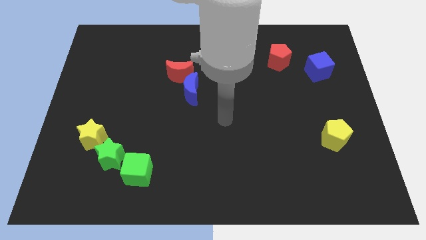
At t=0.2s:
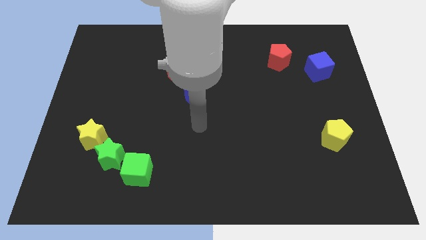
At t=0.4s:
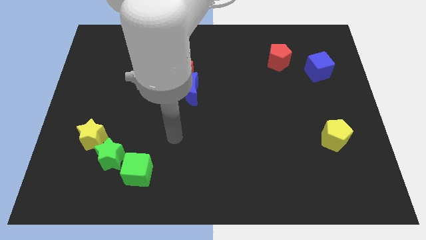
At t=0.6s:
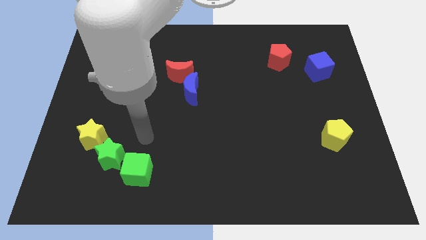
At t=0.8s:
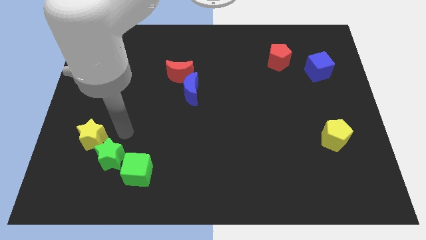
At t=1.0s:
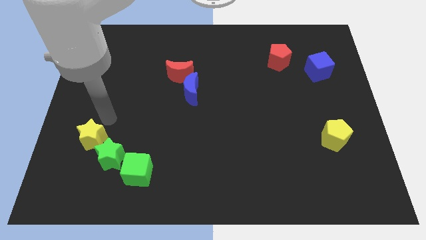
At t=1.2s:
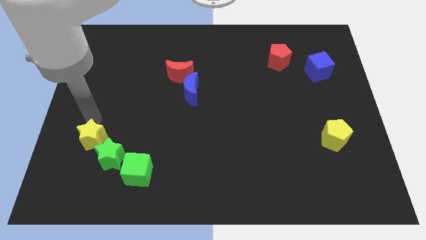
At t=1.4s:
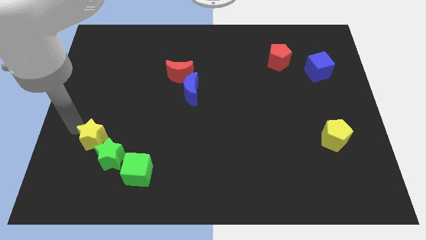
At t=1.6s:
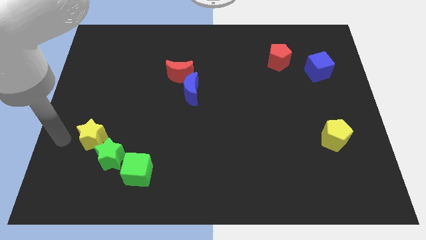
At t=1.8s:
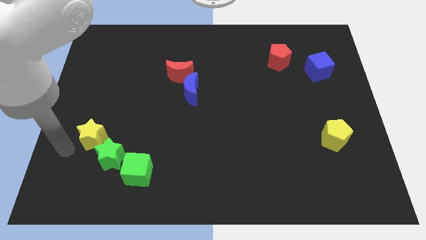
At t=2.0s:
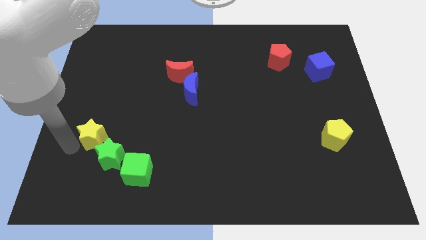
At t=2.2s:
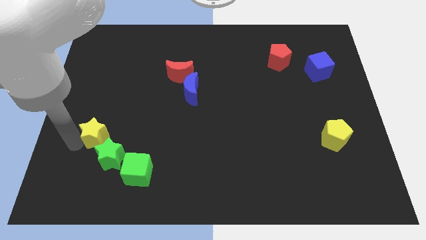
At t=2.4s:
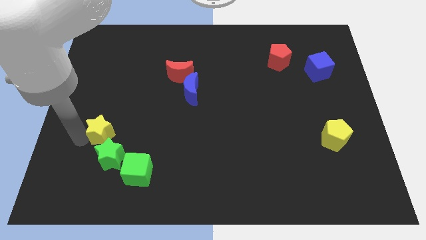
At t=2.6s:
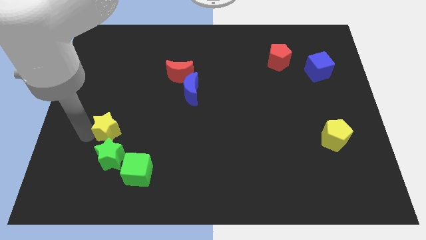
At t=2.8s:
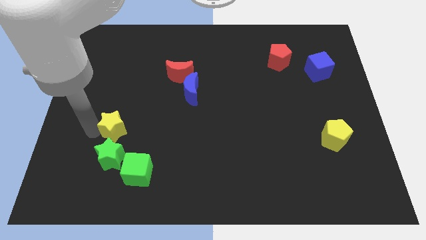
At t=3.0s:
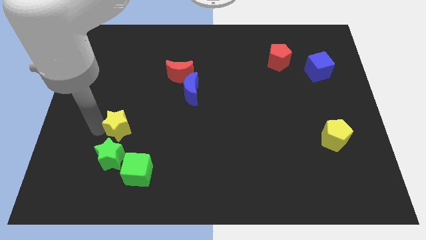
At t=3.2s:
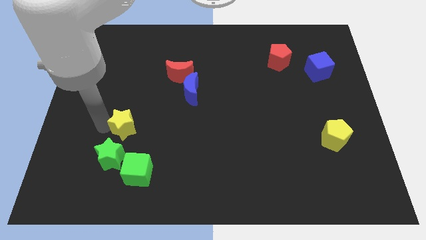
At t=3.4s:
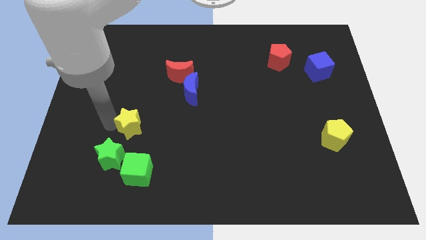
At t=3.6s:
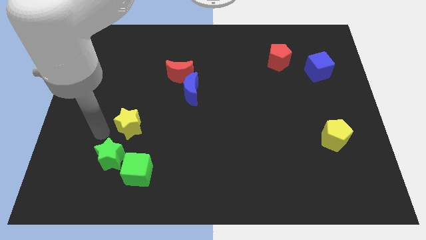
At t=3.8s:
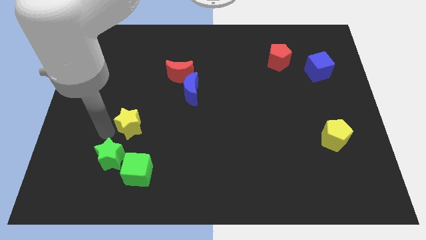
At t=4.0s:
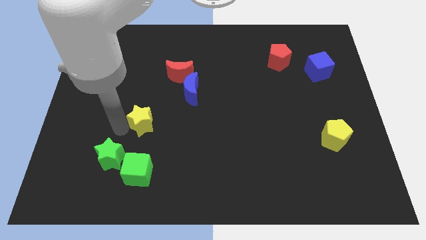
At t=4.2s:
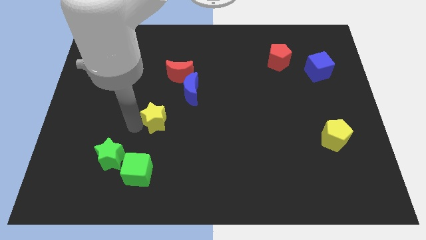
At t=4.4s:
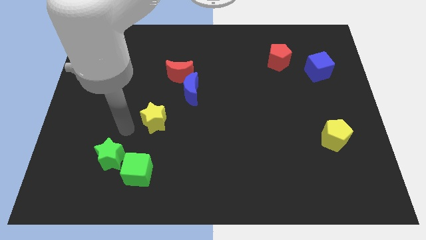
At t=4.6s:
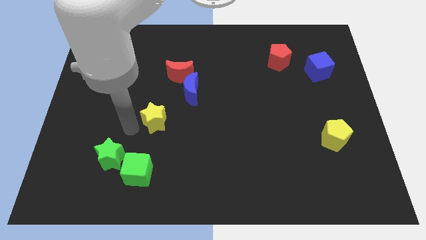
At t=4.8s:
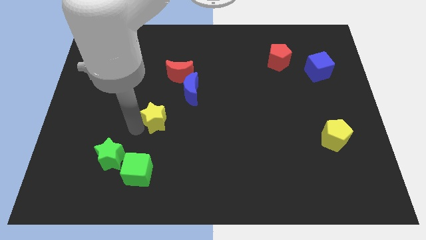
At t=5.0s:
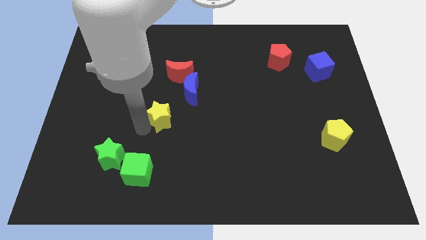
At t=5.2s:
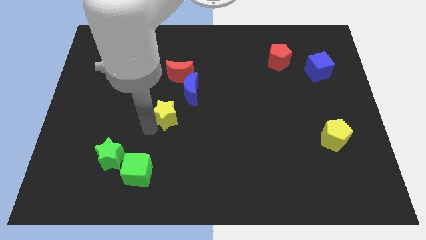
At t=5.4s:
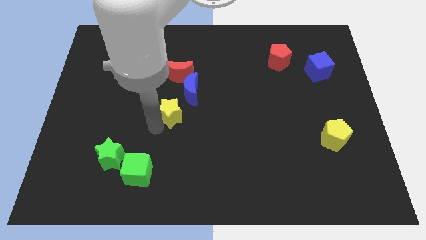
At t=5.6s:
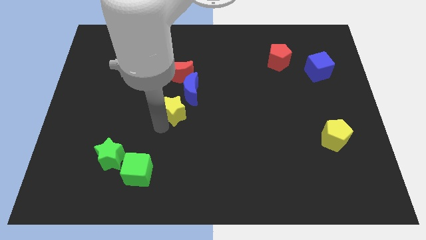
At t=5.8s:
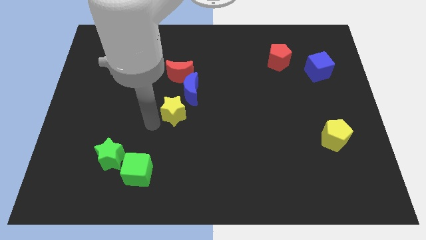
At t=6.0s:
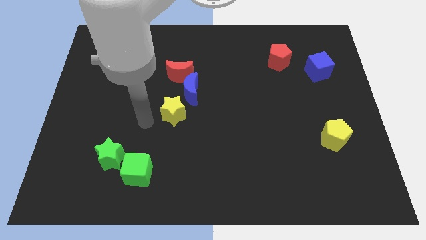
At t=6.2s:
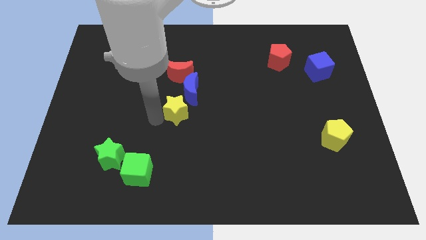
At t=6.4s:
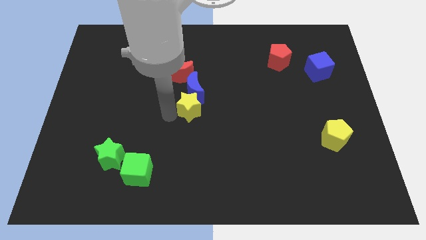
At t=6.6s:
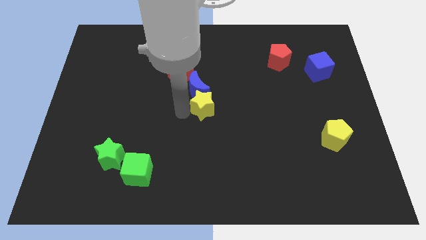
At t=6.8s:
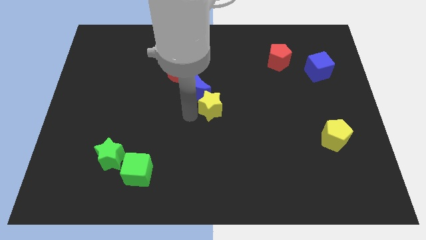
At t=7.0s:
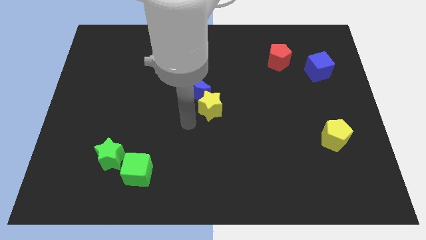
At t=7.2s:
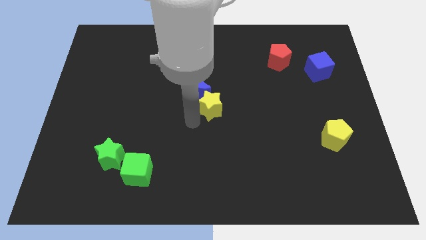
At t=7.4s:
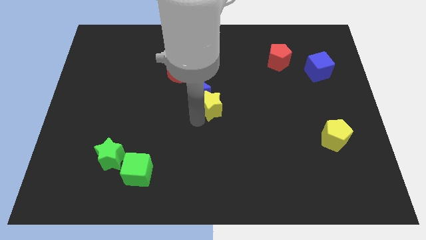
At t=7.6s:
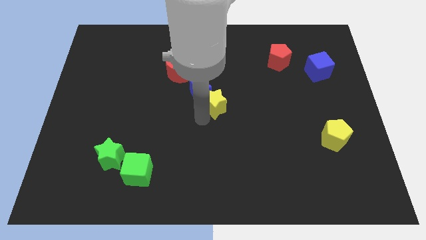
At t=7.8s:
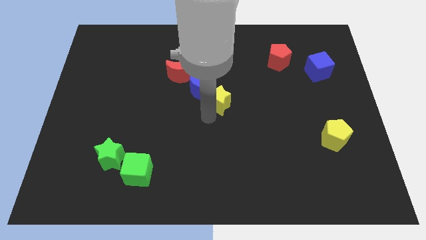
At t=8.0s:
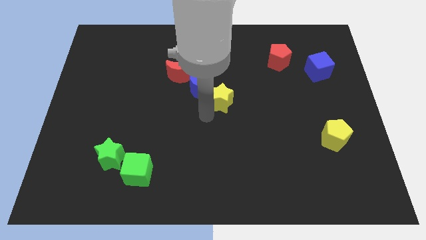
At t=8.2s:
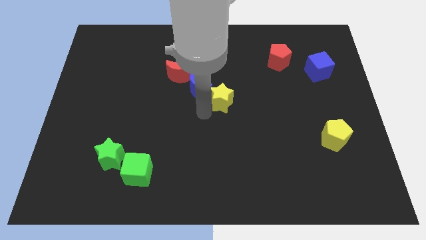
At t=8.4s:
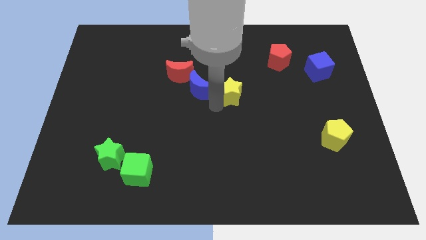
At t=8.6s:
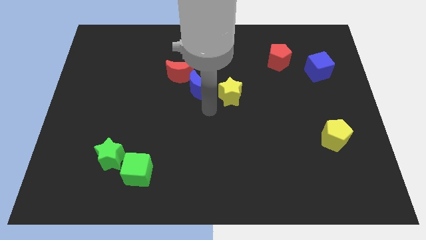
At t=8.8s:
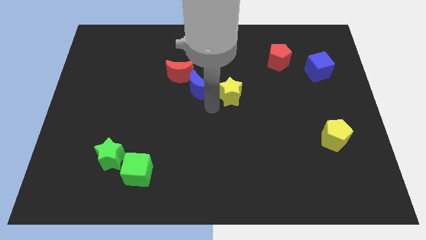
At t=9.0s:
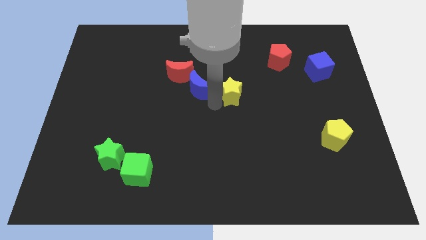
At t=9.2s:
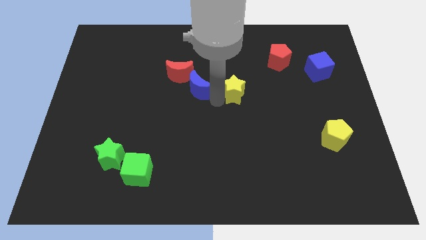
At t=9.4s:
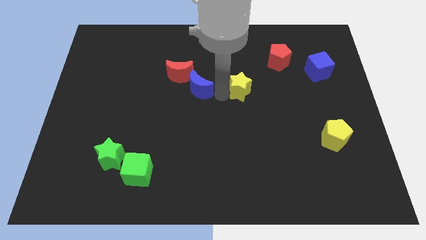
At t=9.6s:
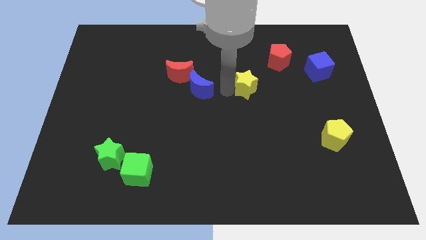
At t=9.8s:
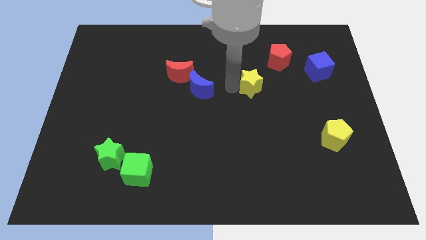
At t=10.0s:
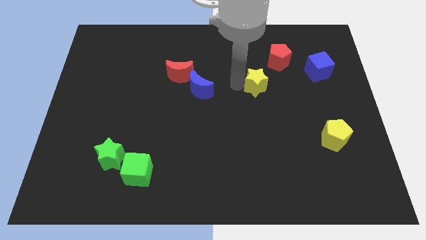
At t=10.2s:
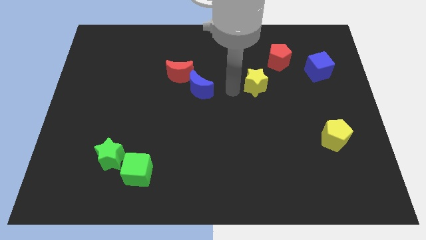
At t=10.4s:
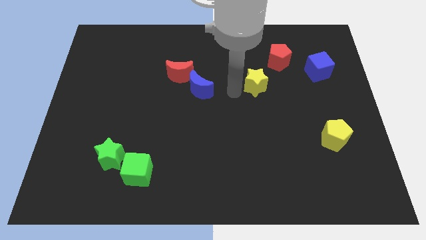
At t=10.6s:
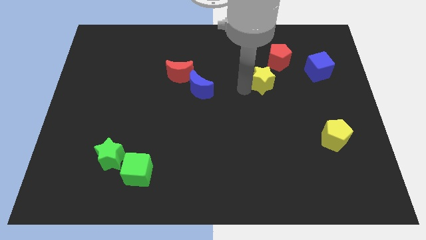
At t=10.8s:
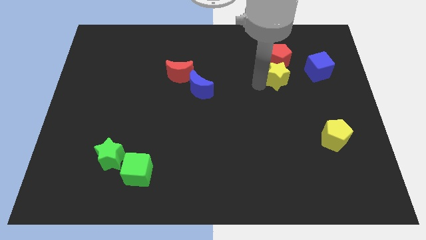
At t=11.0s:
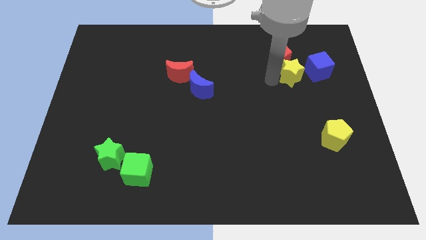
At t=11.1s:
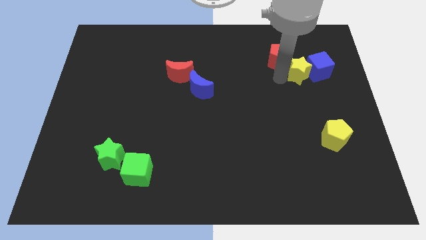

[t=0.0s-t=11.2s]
slide the yellow star to the blue cube

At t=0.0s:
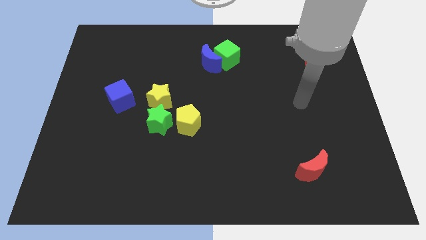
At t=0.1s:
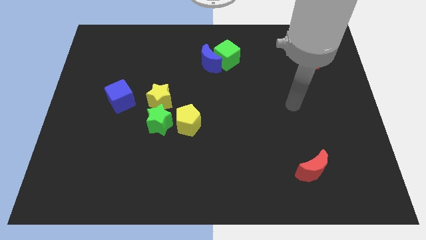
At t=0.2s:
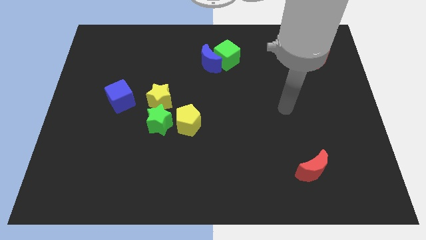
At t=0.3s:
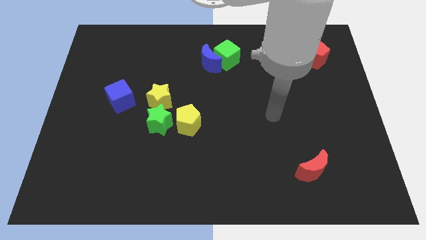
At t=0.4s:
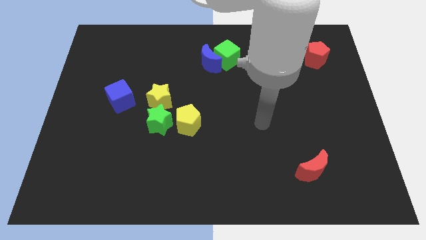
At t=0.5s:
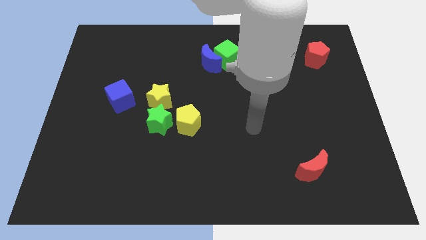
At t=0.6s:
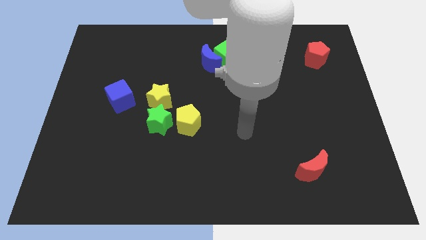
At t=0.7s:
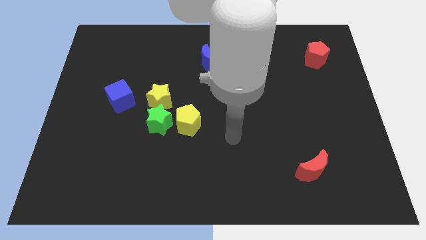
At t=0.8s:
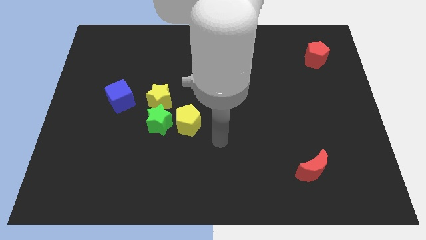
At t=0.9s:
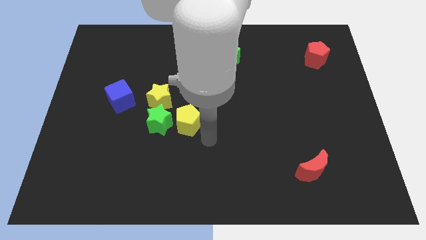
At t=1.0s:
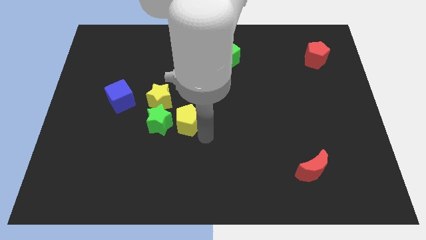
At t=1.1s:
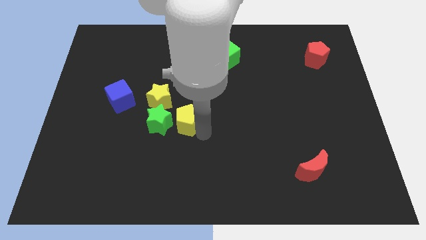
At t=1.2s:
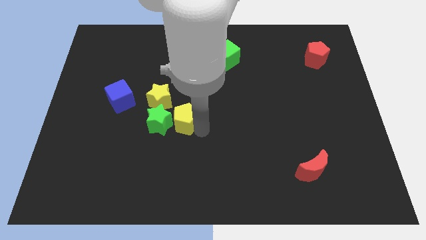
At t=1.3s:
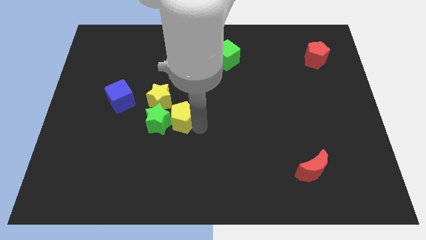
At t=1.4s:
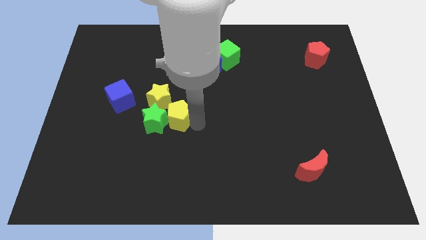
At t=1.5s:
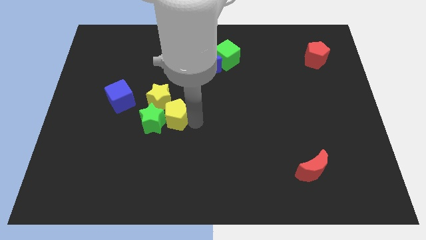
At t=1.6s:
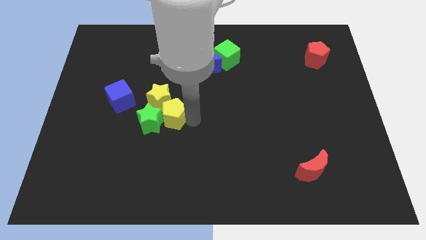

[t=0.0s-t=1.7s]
move the yellow pentagon to the yellow star

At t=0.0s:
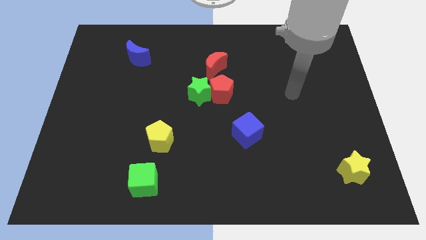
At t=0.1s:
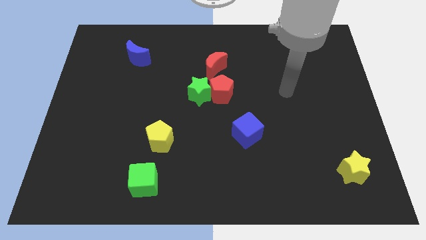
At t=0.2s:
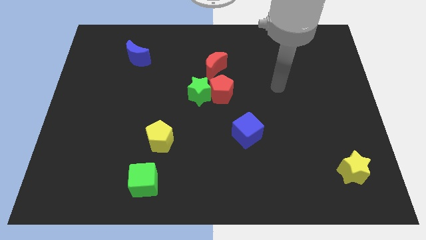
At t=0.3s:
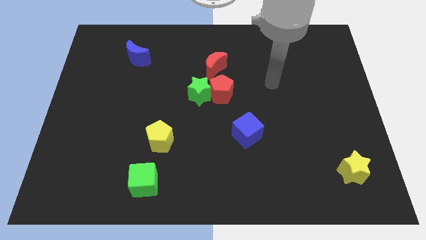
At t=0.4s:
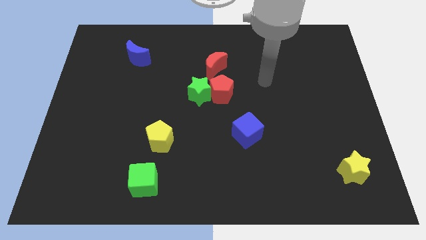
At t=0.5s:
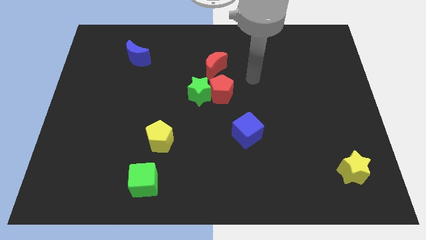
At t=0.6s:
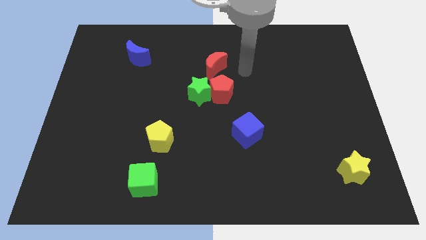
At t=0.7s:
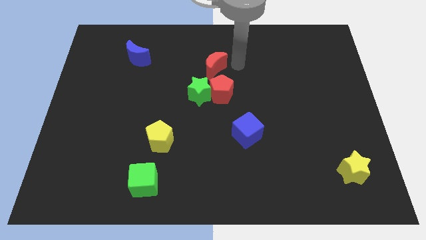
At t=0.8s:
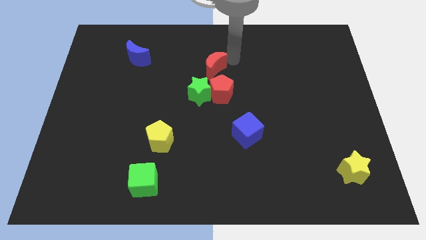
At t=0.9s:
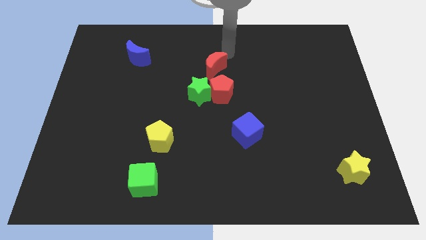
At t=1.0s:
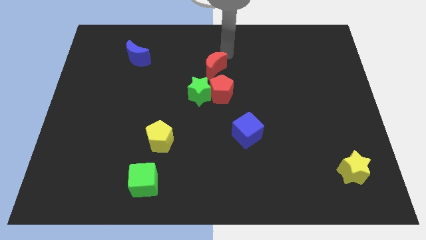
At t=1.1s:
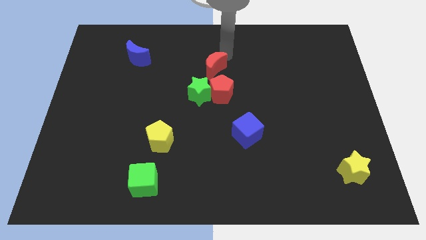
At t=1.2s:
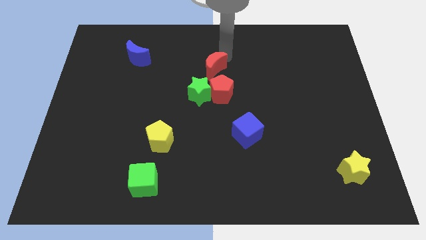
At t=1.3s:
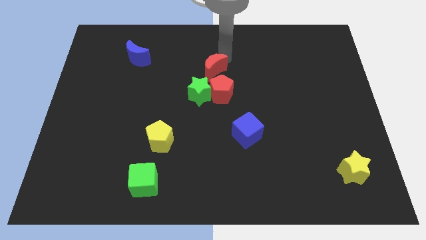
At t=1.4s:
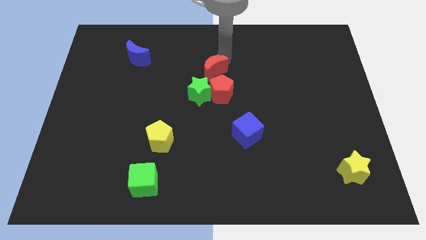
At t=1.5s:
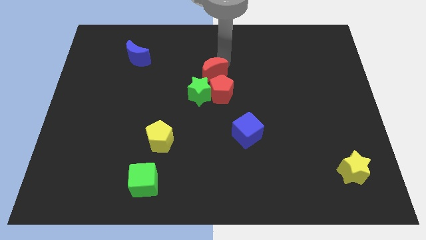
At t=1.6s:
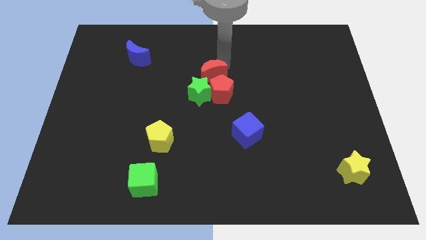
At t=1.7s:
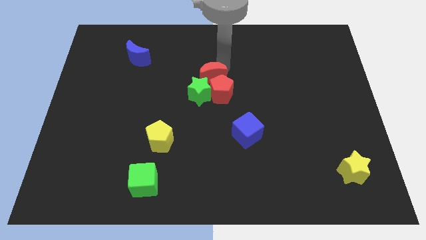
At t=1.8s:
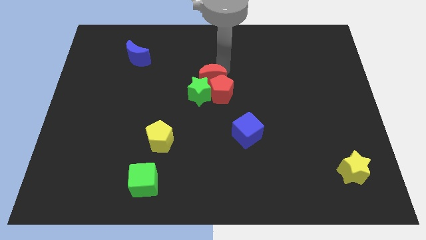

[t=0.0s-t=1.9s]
put the red moon towards the green star
